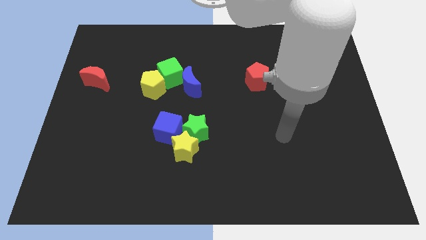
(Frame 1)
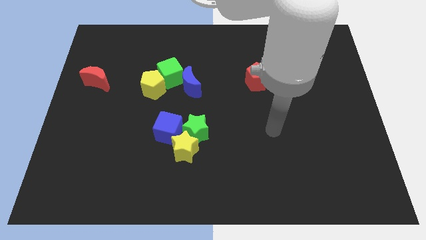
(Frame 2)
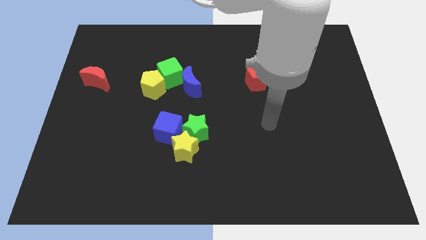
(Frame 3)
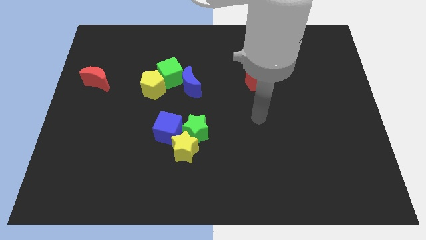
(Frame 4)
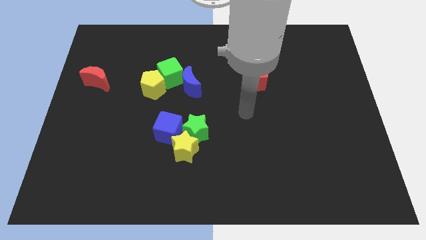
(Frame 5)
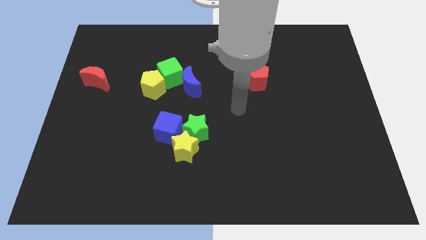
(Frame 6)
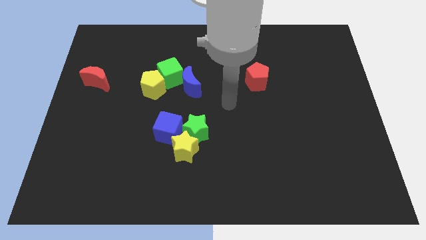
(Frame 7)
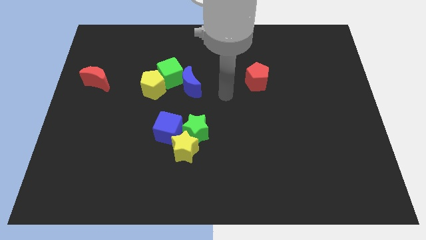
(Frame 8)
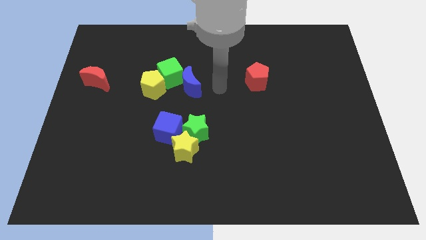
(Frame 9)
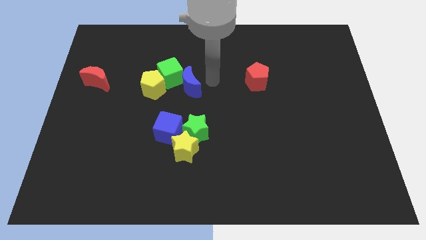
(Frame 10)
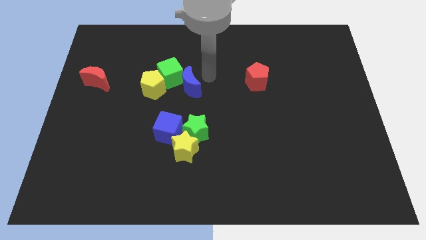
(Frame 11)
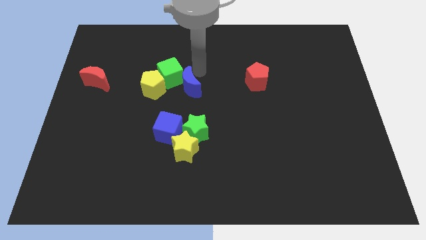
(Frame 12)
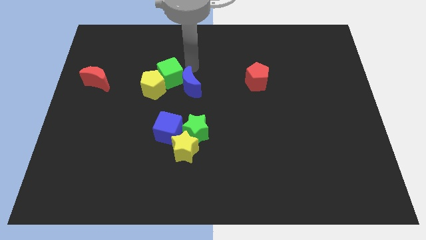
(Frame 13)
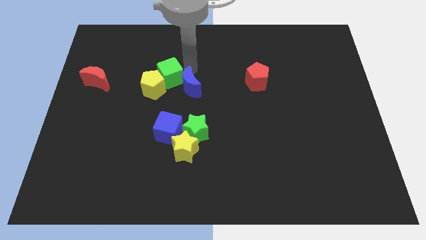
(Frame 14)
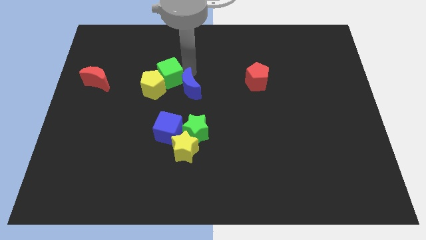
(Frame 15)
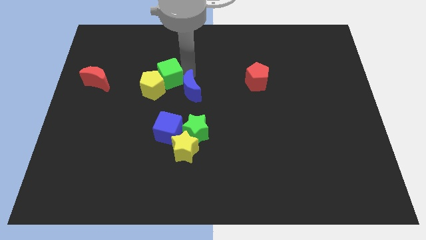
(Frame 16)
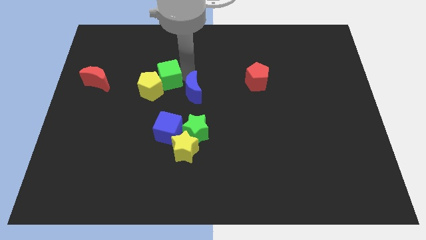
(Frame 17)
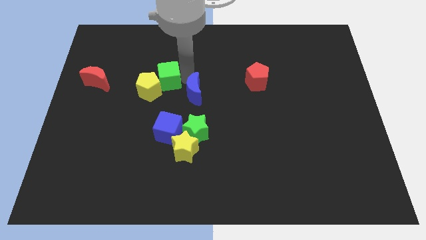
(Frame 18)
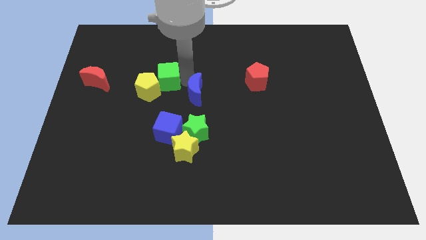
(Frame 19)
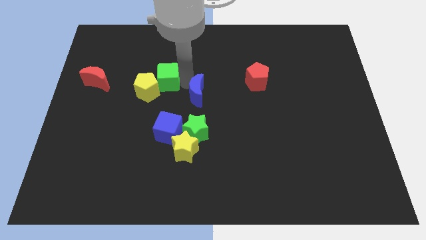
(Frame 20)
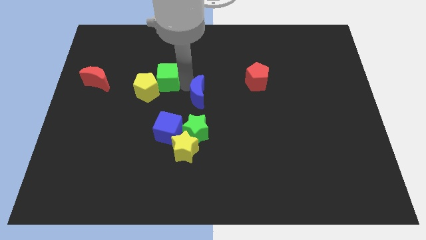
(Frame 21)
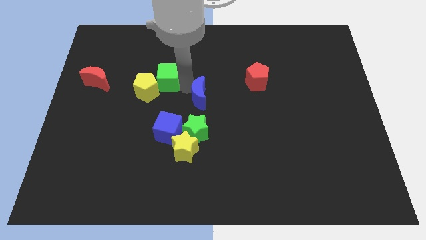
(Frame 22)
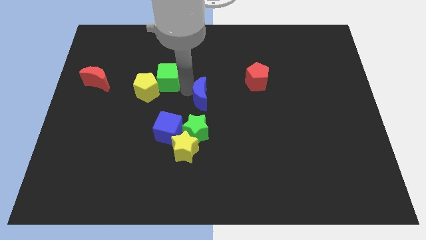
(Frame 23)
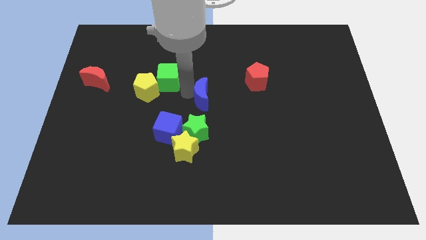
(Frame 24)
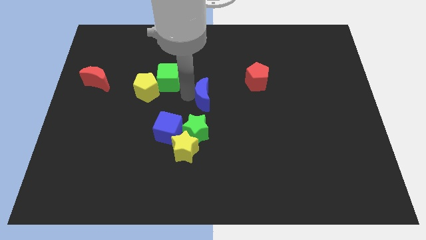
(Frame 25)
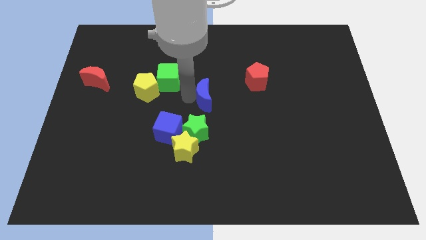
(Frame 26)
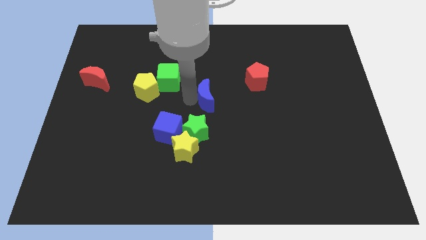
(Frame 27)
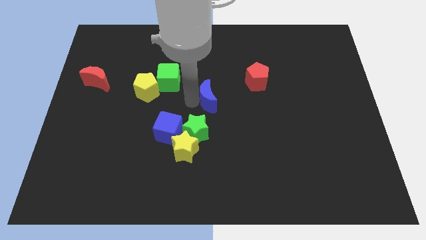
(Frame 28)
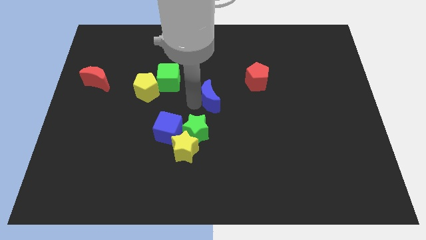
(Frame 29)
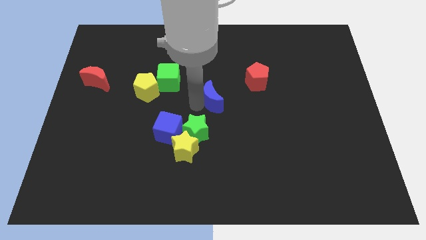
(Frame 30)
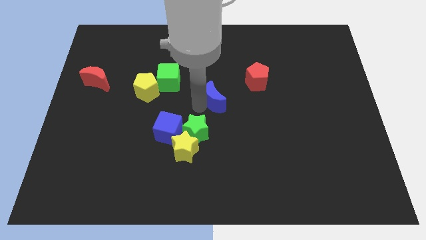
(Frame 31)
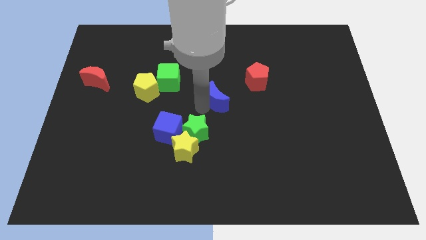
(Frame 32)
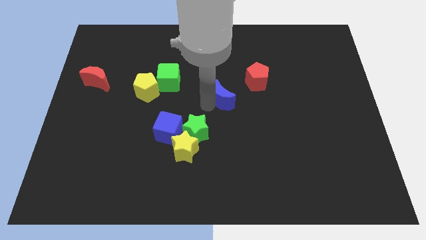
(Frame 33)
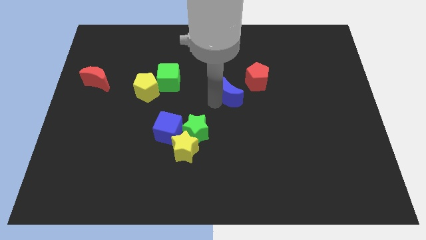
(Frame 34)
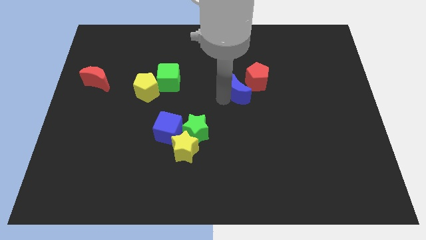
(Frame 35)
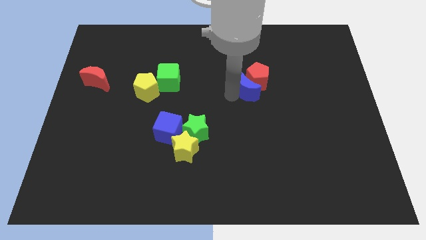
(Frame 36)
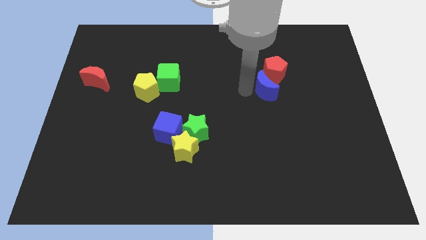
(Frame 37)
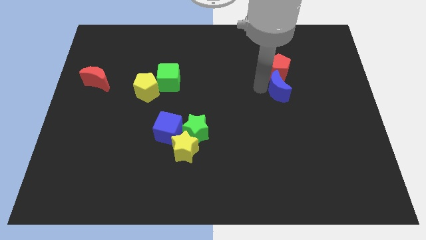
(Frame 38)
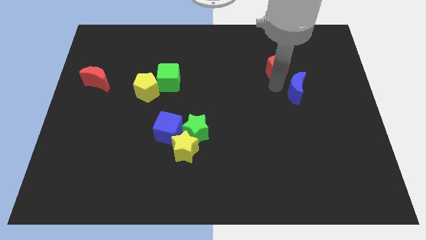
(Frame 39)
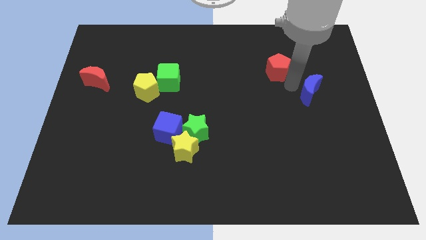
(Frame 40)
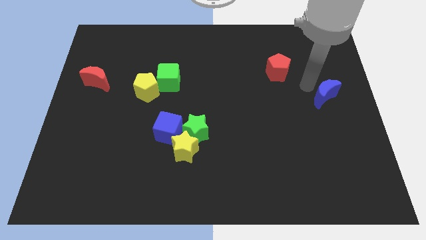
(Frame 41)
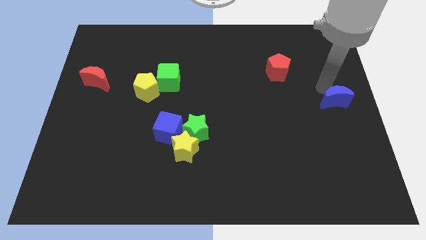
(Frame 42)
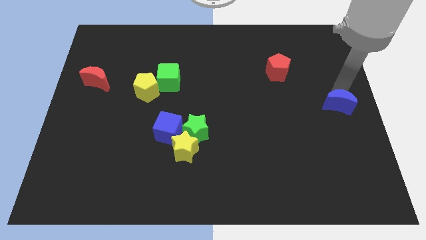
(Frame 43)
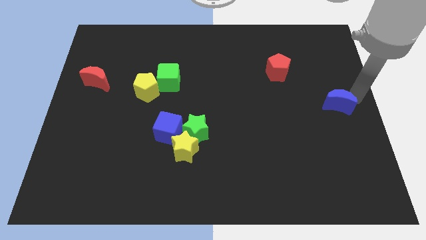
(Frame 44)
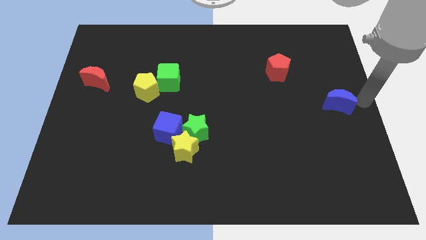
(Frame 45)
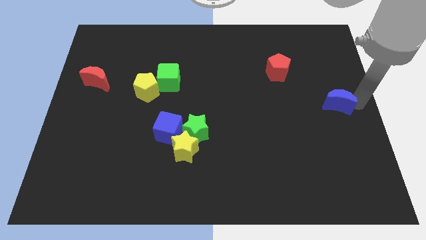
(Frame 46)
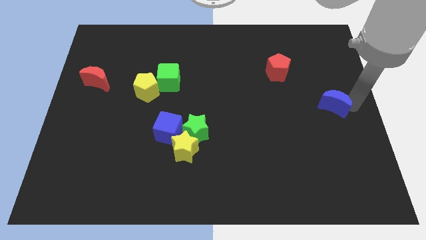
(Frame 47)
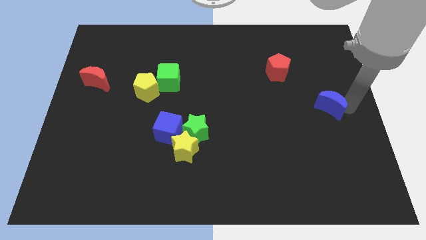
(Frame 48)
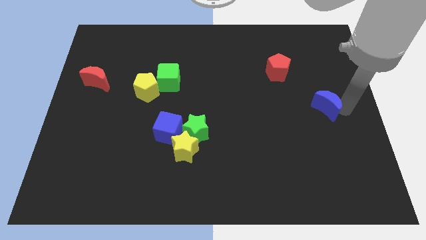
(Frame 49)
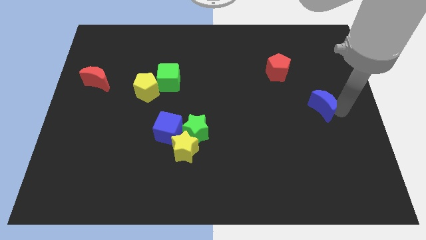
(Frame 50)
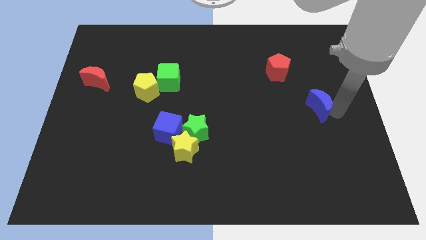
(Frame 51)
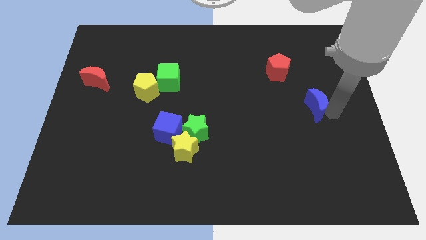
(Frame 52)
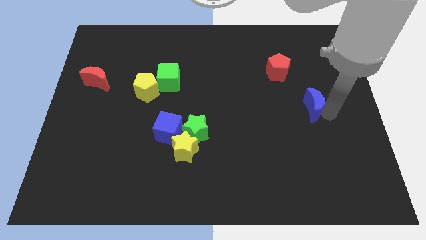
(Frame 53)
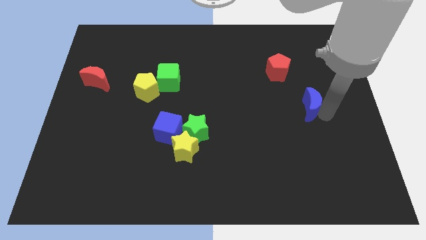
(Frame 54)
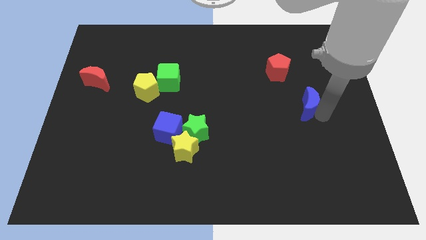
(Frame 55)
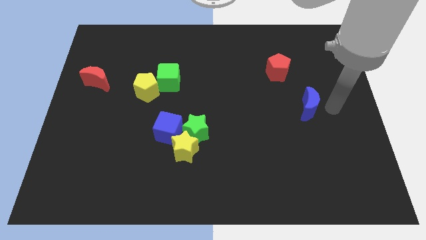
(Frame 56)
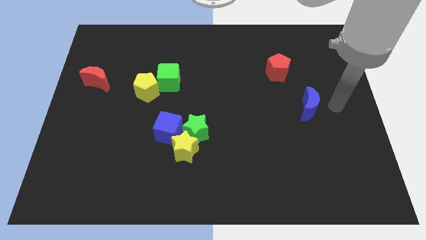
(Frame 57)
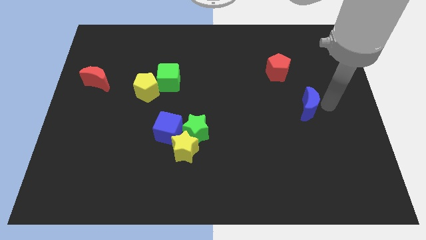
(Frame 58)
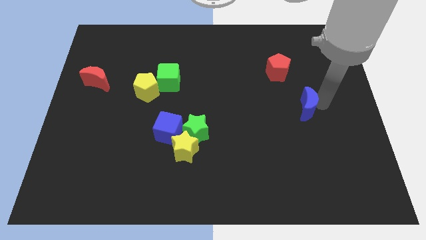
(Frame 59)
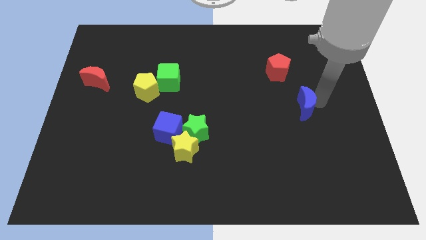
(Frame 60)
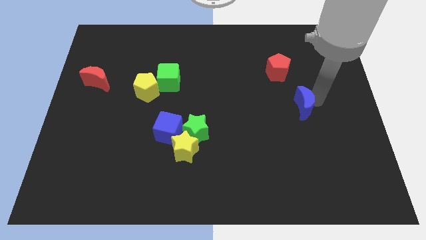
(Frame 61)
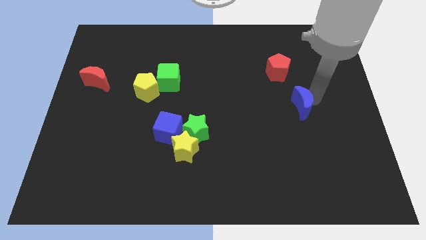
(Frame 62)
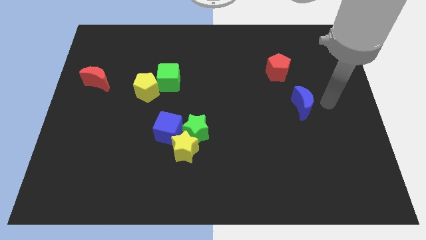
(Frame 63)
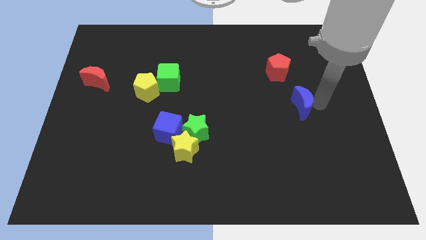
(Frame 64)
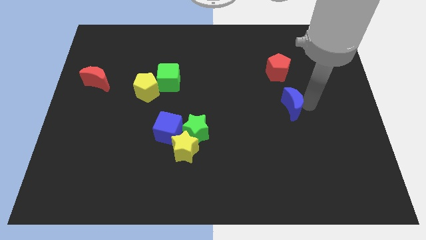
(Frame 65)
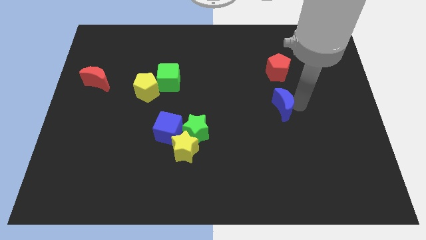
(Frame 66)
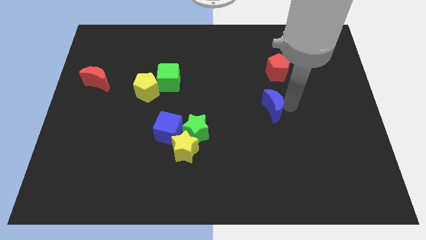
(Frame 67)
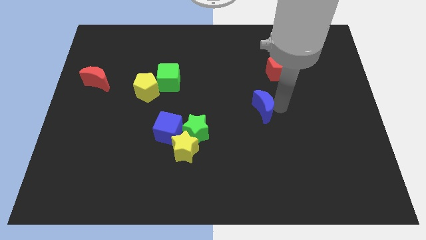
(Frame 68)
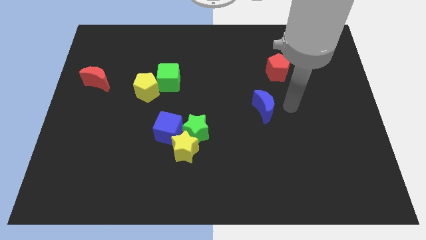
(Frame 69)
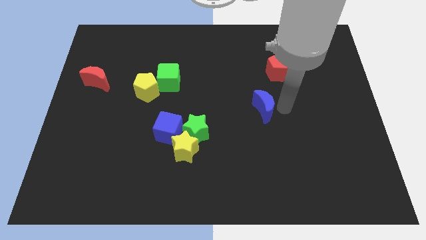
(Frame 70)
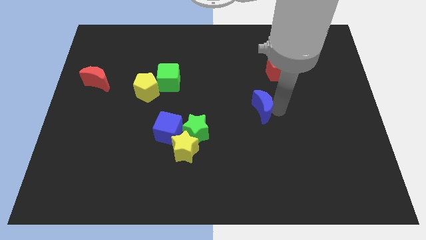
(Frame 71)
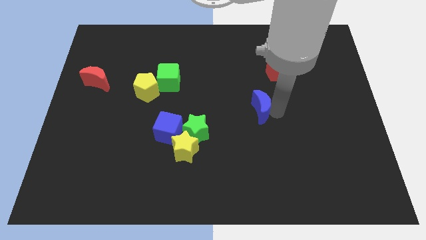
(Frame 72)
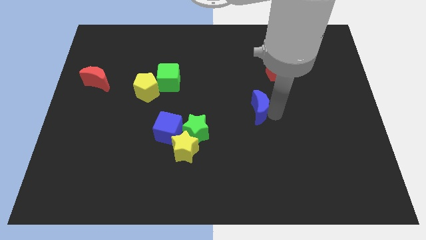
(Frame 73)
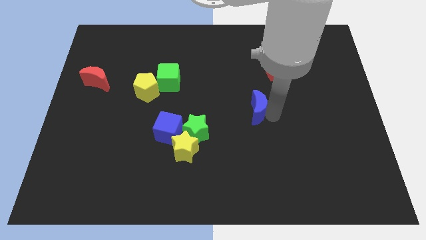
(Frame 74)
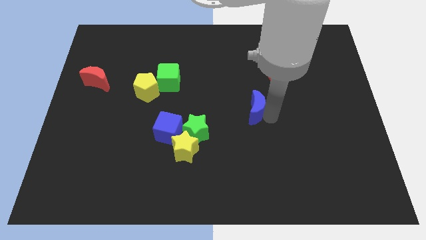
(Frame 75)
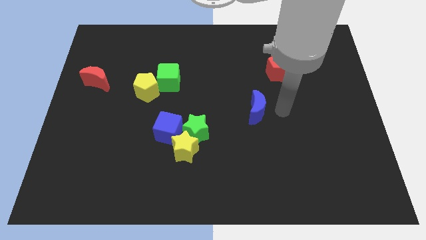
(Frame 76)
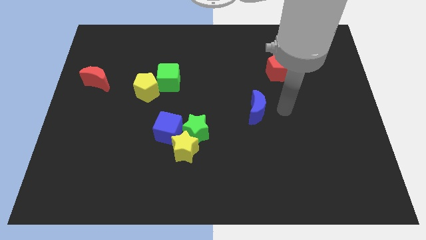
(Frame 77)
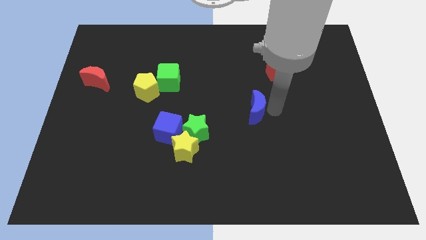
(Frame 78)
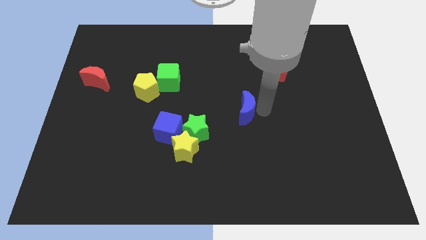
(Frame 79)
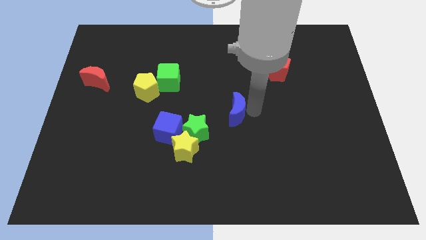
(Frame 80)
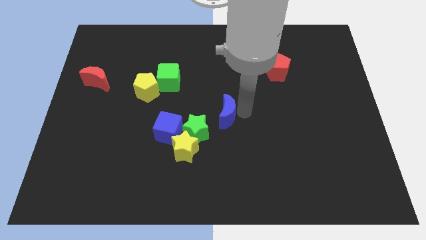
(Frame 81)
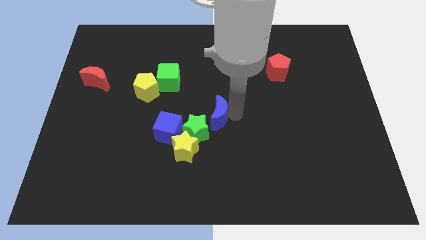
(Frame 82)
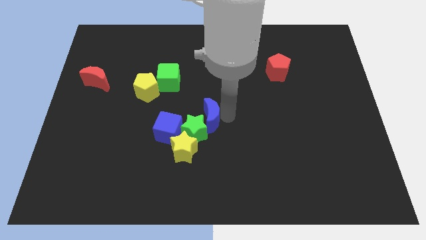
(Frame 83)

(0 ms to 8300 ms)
slide the blue moon next to the green star
